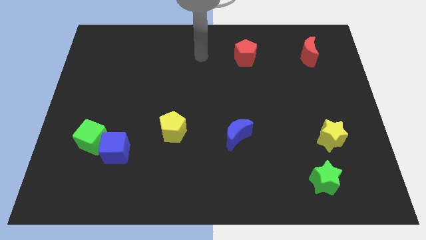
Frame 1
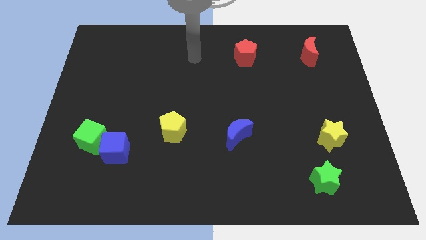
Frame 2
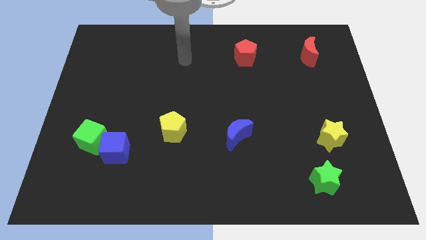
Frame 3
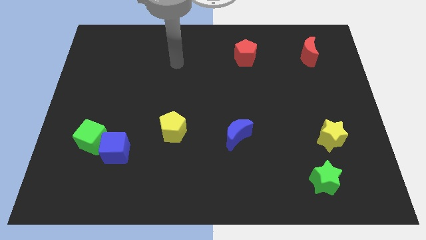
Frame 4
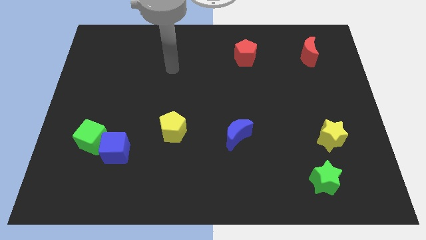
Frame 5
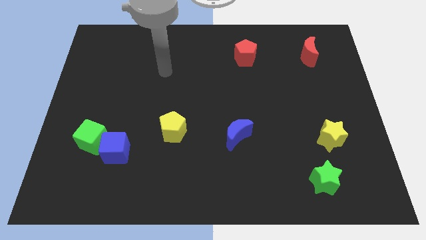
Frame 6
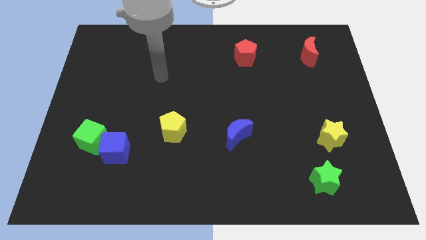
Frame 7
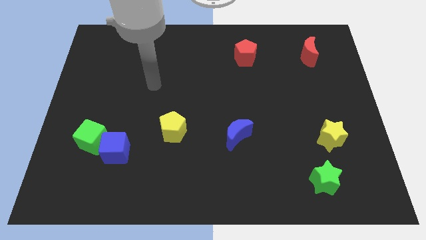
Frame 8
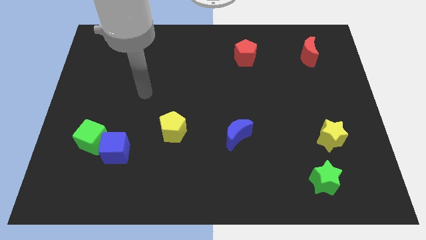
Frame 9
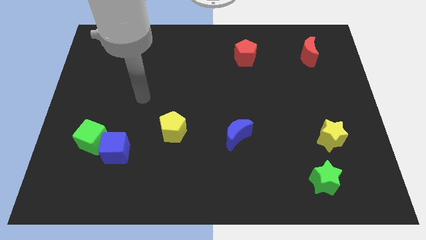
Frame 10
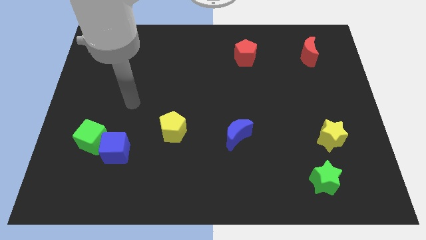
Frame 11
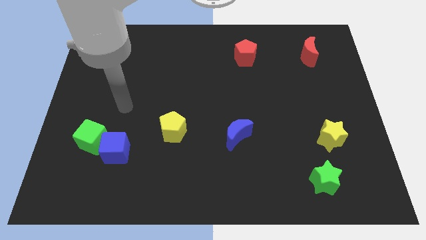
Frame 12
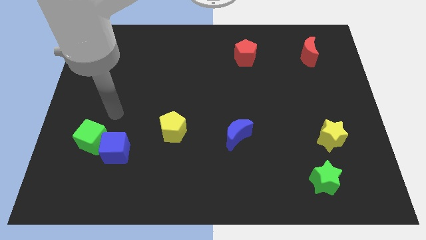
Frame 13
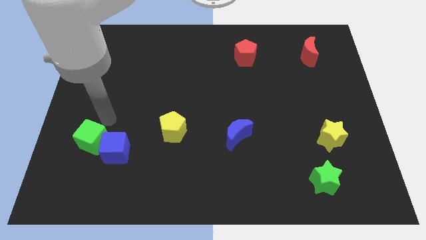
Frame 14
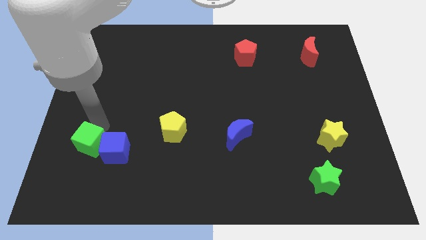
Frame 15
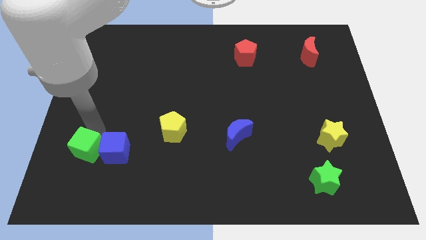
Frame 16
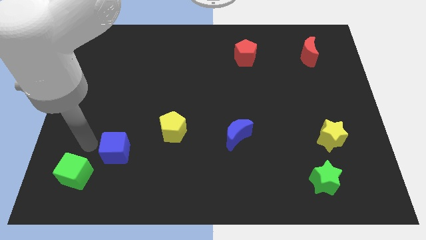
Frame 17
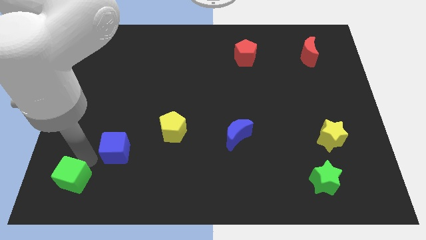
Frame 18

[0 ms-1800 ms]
separate the blue cube from the green cube

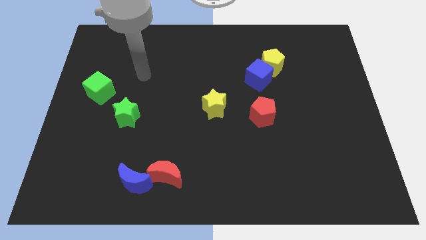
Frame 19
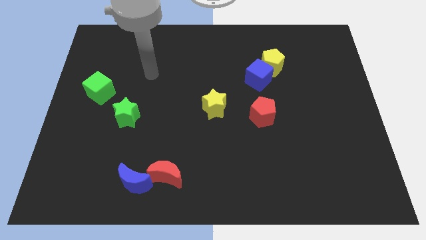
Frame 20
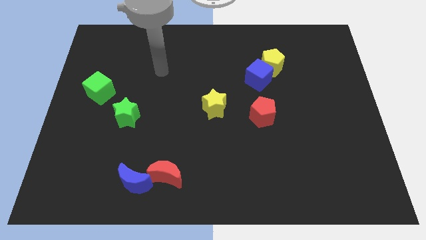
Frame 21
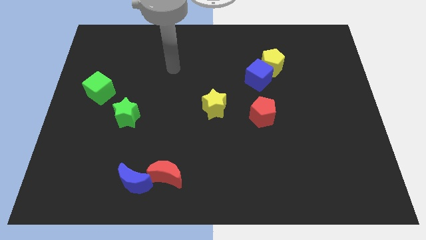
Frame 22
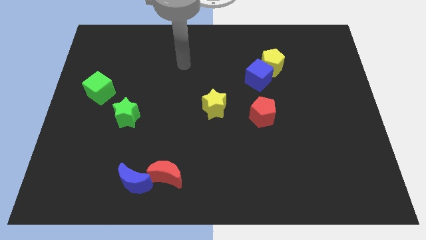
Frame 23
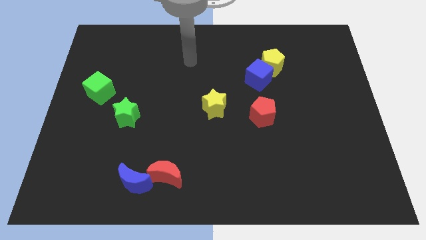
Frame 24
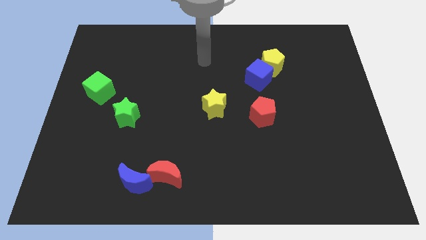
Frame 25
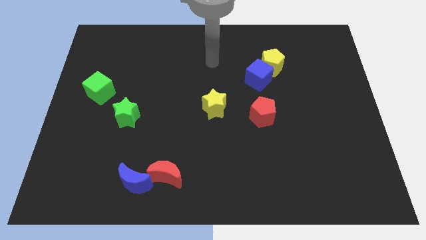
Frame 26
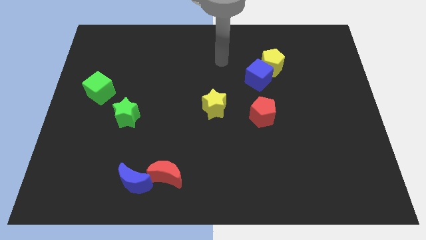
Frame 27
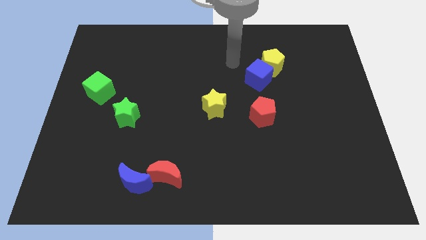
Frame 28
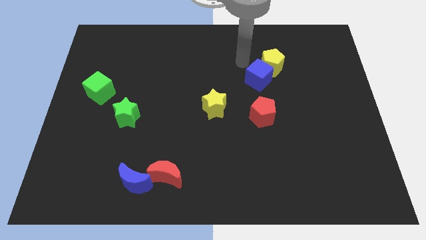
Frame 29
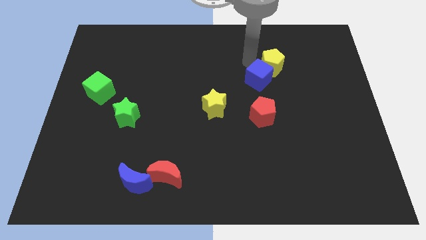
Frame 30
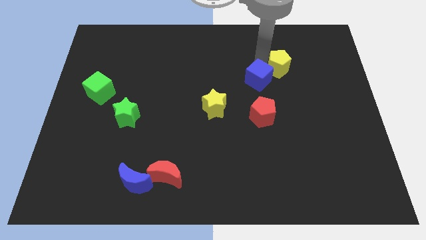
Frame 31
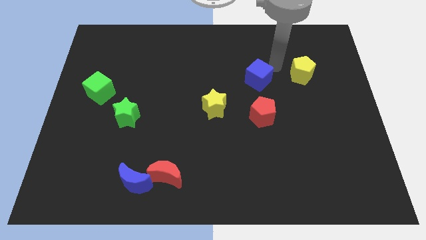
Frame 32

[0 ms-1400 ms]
move the blue cube away from the yellow pentagon

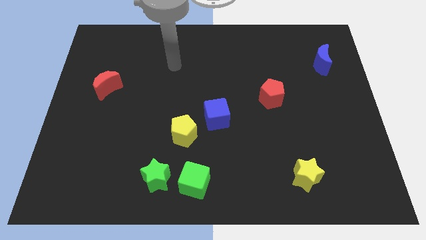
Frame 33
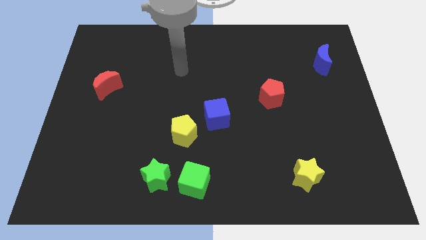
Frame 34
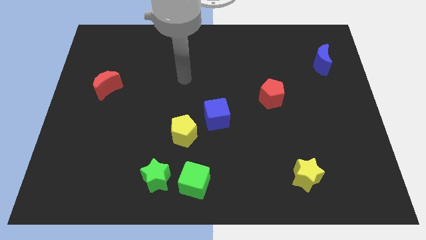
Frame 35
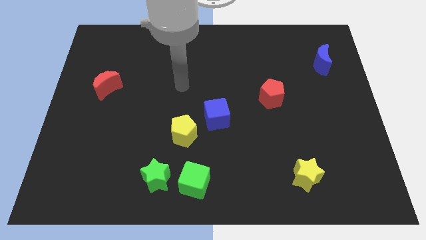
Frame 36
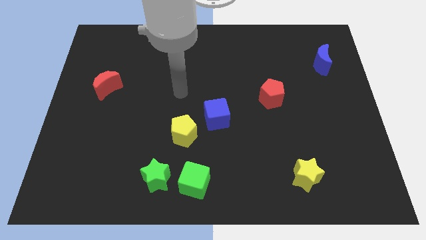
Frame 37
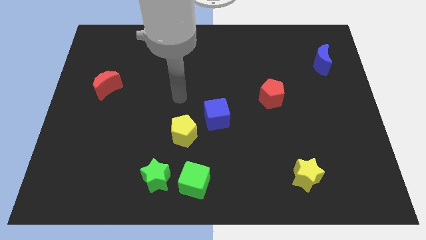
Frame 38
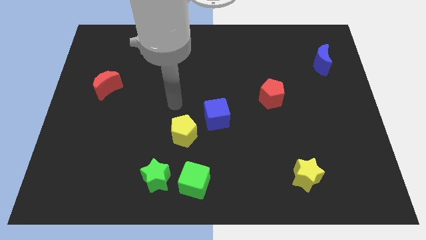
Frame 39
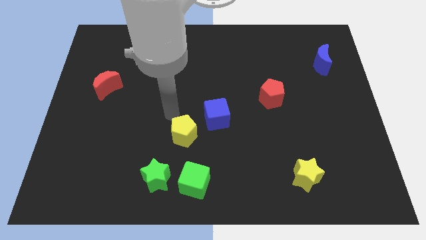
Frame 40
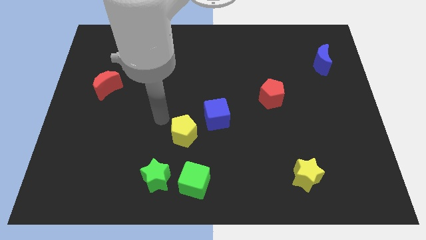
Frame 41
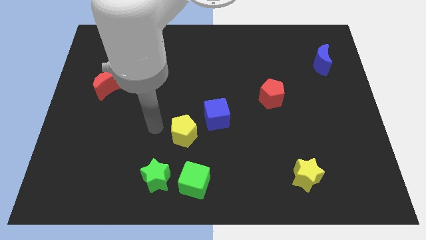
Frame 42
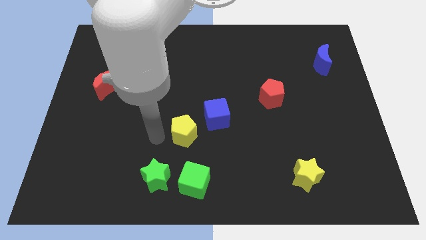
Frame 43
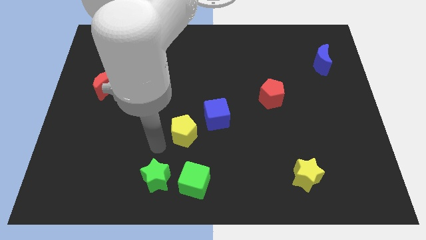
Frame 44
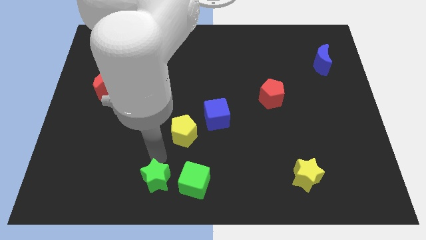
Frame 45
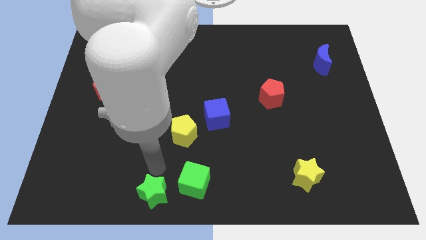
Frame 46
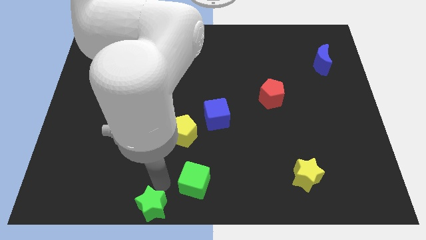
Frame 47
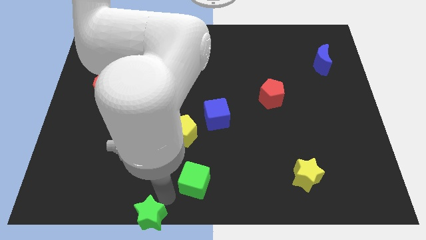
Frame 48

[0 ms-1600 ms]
separate the green cube from the green star

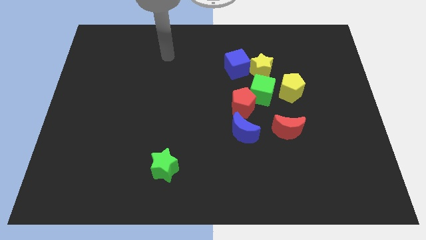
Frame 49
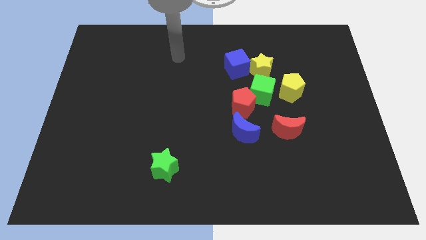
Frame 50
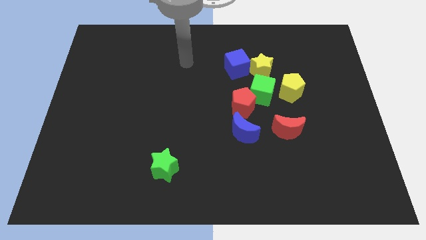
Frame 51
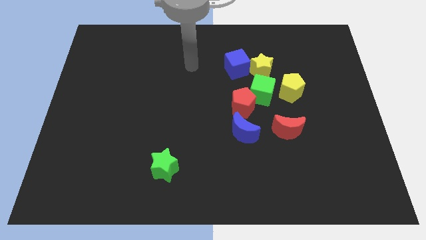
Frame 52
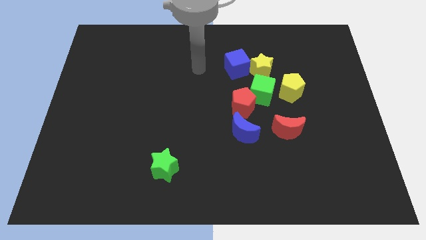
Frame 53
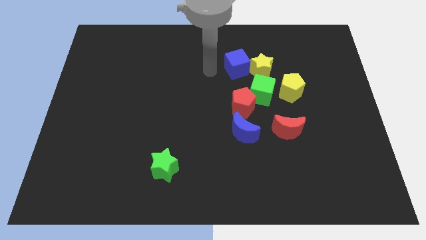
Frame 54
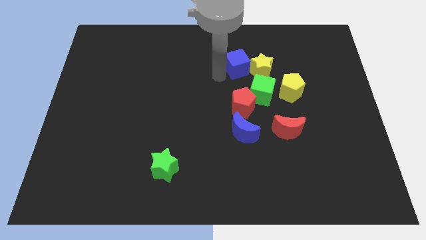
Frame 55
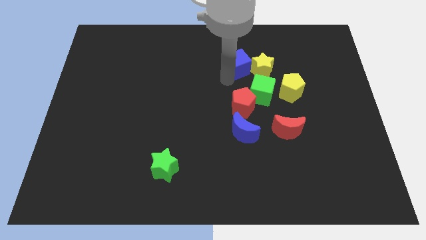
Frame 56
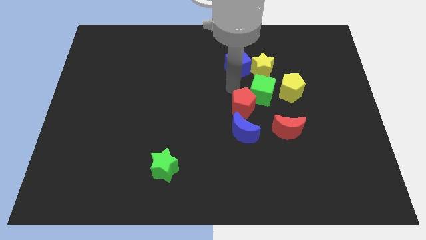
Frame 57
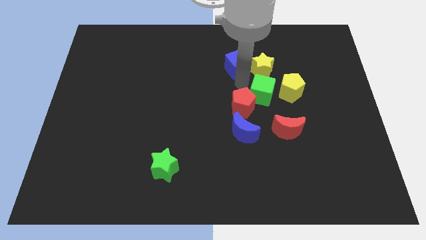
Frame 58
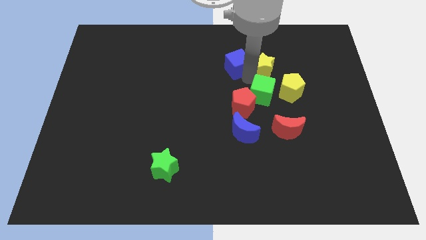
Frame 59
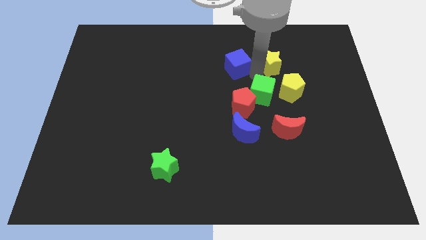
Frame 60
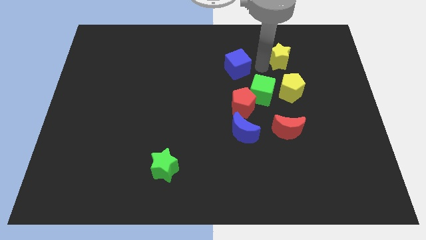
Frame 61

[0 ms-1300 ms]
move the blue cube away from the yellow star

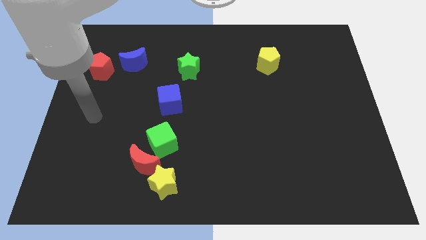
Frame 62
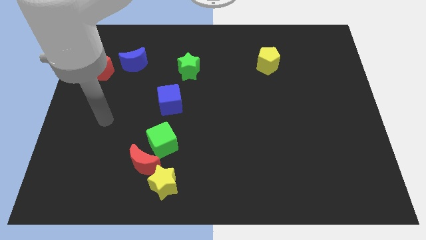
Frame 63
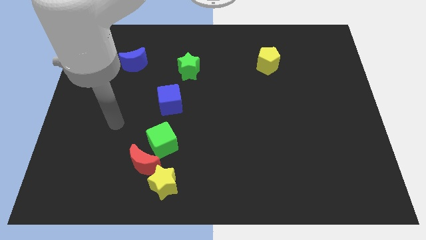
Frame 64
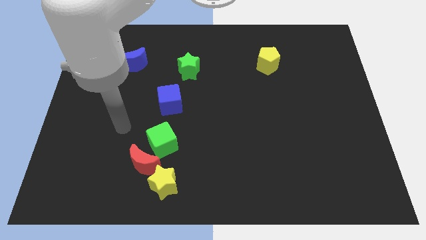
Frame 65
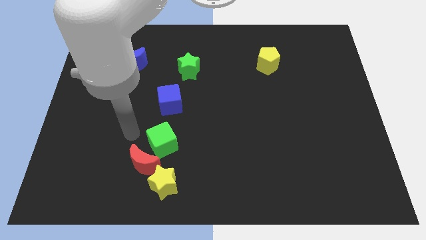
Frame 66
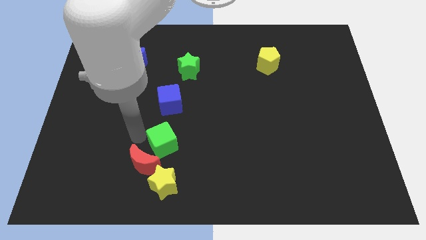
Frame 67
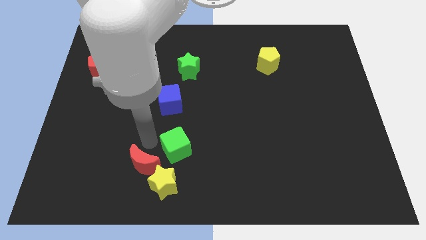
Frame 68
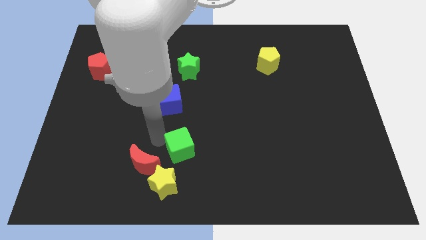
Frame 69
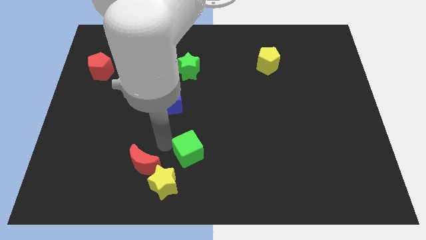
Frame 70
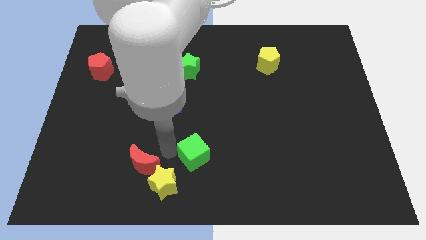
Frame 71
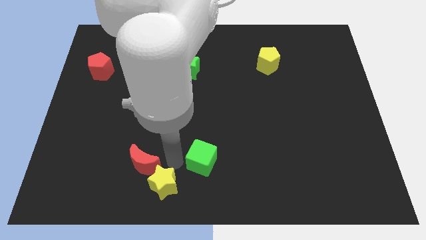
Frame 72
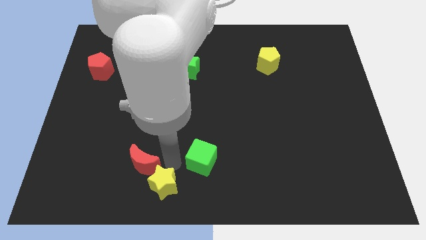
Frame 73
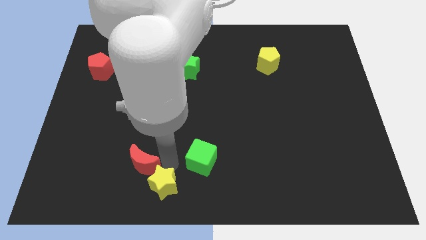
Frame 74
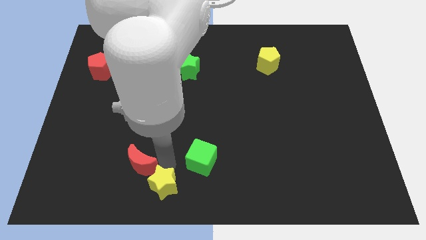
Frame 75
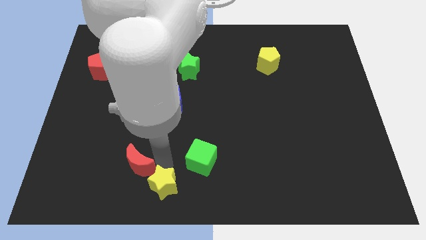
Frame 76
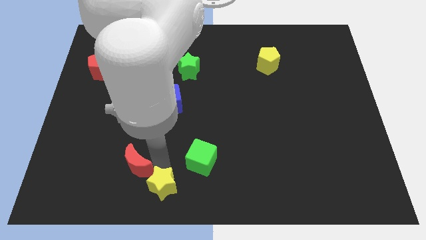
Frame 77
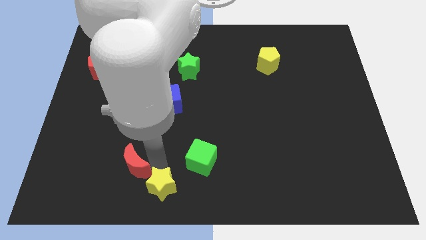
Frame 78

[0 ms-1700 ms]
move the red moon away from the green cube and yellow star

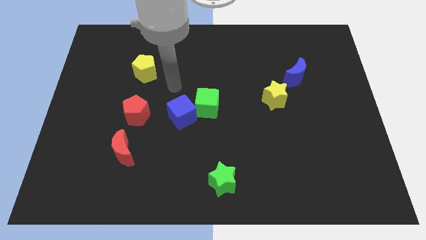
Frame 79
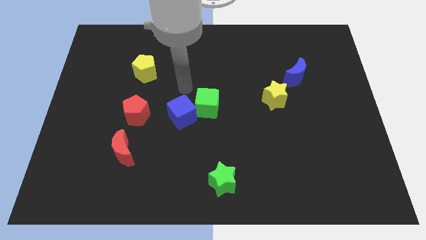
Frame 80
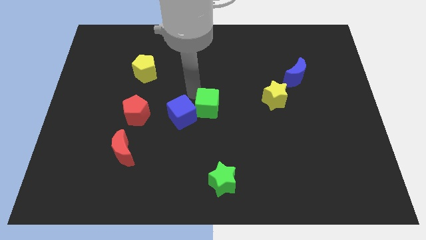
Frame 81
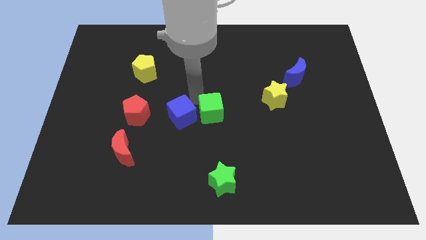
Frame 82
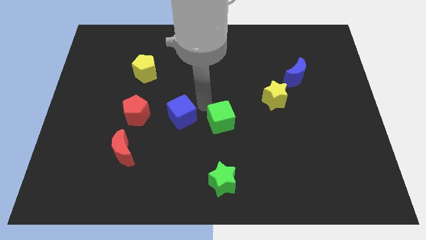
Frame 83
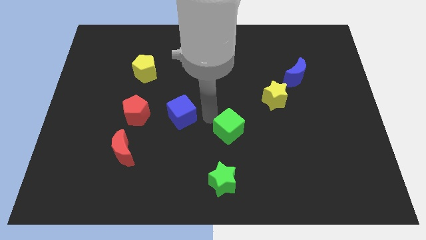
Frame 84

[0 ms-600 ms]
pull the blue cube apart from the green cube

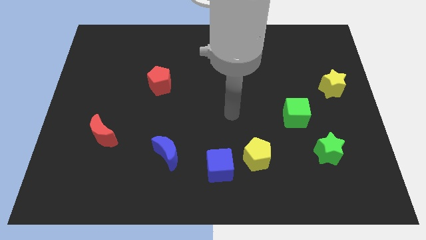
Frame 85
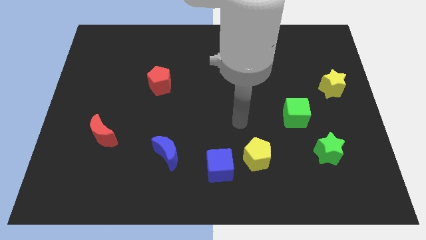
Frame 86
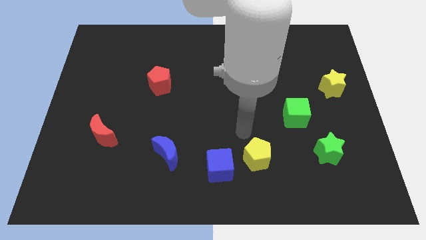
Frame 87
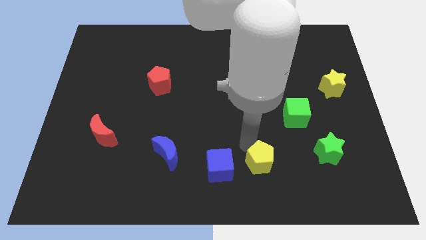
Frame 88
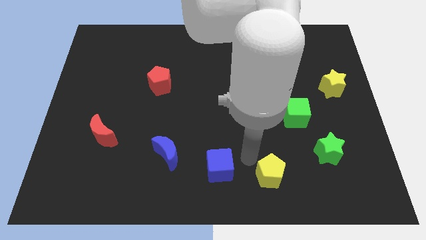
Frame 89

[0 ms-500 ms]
separate the blue cube from the yellow pentagon

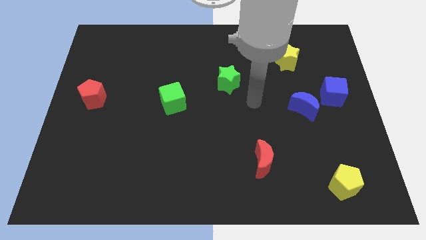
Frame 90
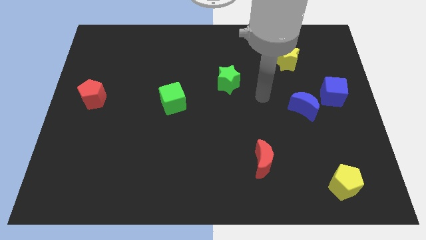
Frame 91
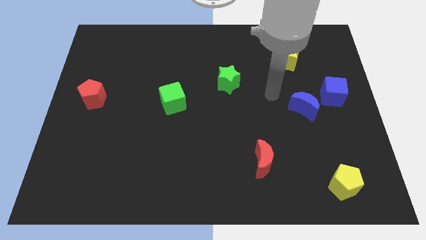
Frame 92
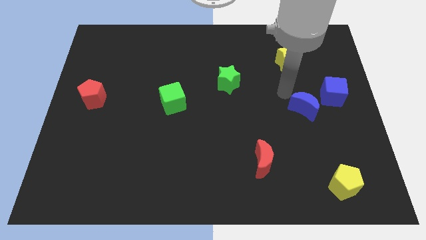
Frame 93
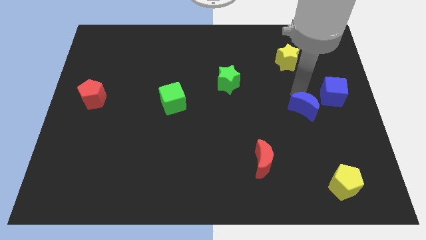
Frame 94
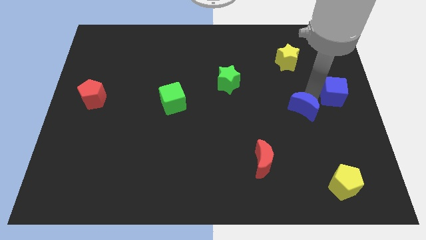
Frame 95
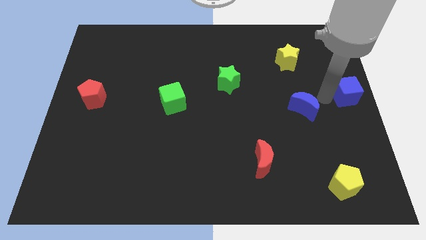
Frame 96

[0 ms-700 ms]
pull the blue moon apart from the blue cube
